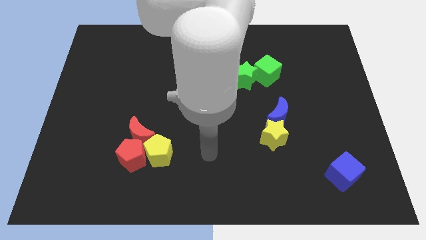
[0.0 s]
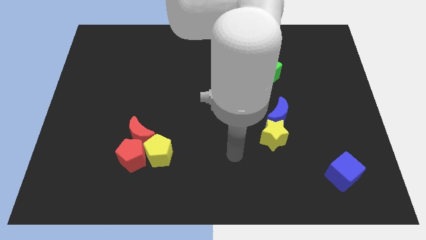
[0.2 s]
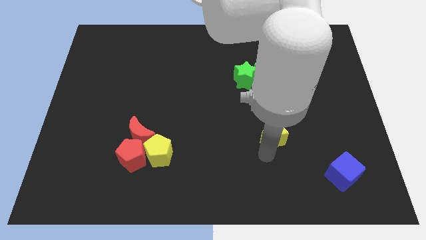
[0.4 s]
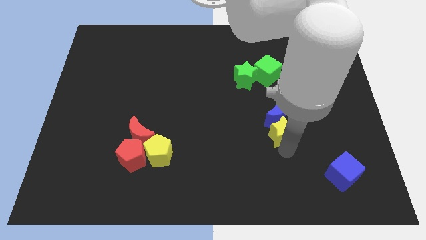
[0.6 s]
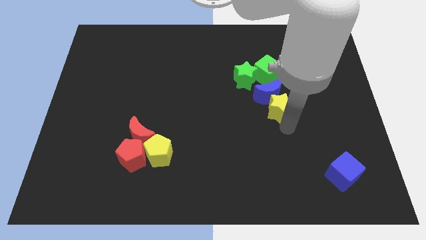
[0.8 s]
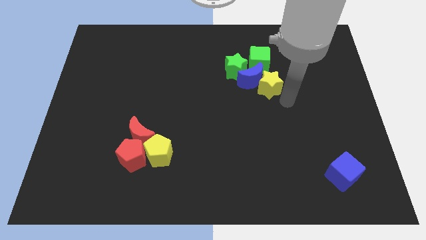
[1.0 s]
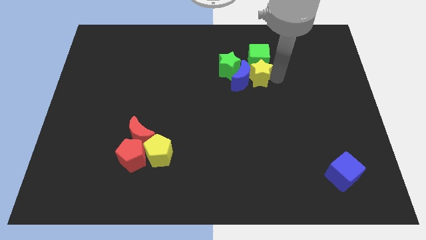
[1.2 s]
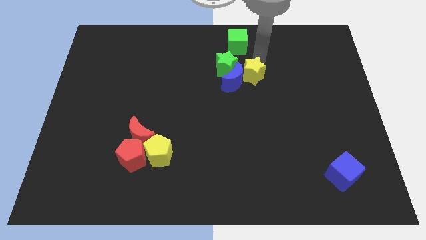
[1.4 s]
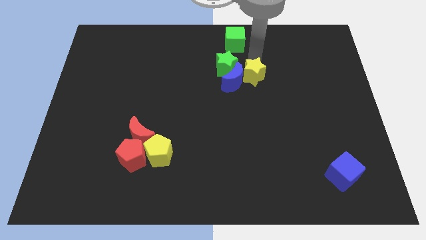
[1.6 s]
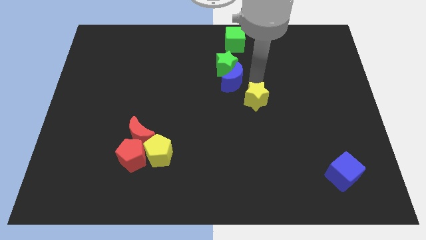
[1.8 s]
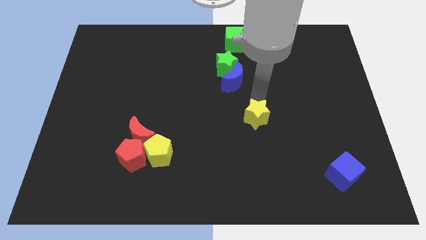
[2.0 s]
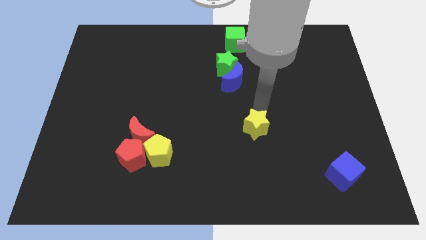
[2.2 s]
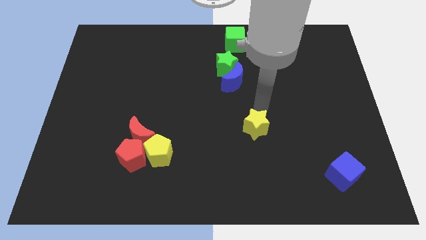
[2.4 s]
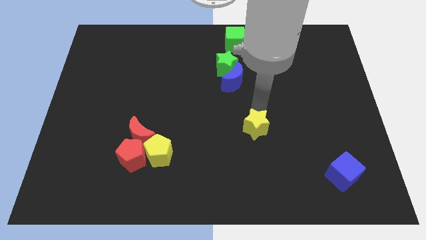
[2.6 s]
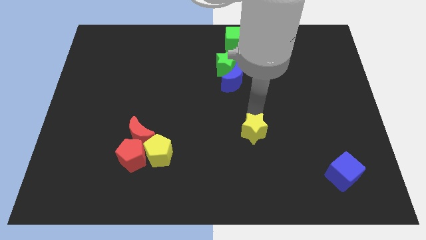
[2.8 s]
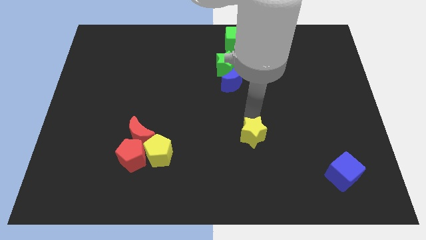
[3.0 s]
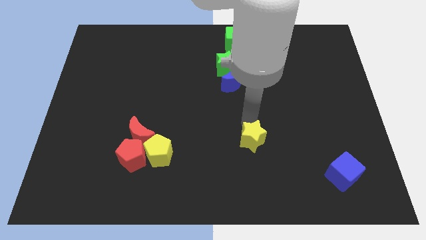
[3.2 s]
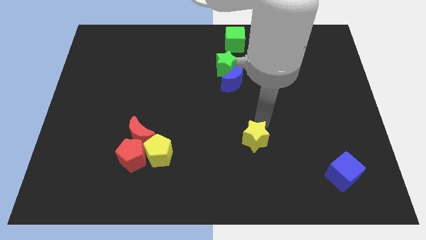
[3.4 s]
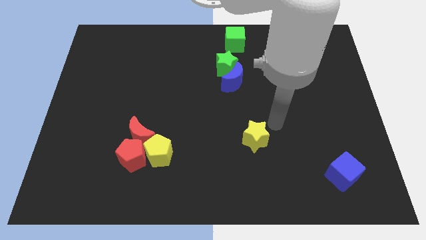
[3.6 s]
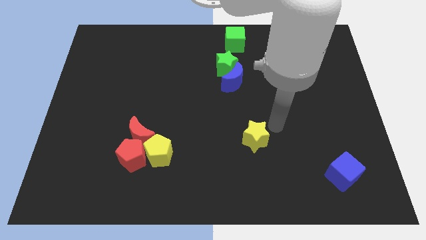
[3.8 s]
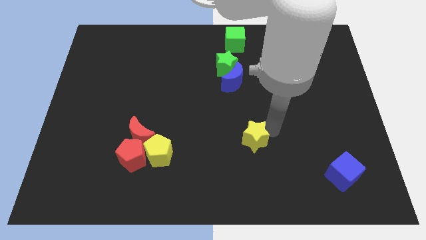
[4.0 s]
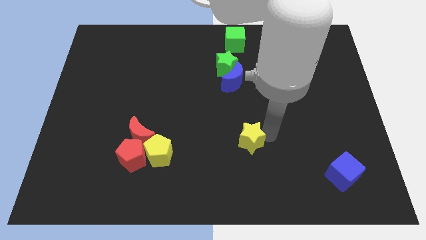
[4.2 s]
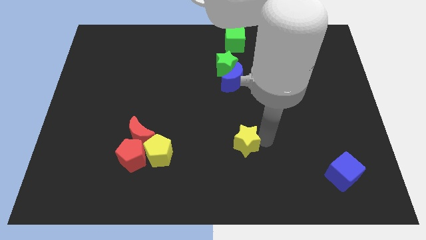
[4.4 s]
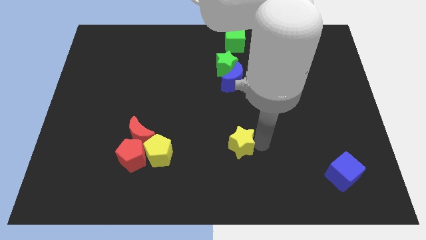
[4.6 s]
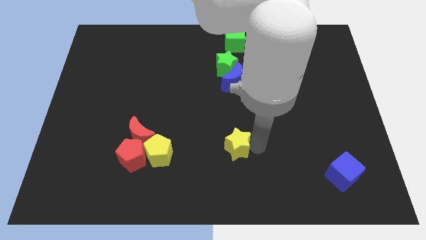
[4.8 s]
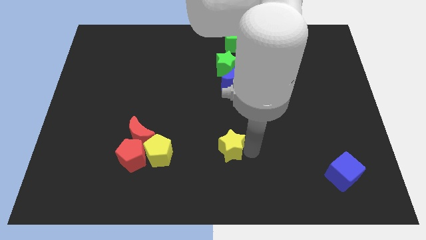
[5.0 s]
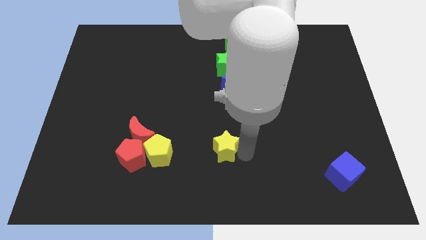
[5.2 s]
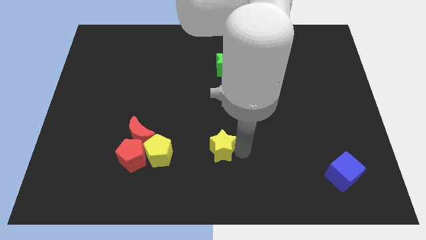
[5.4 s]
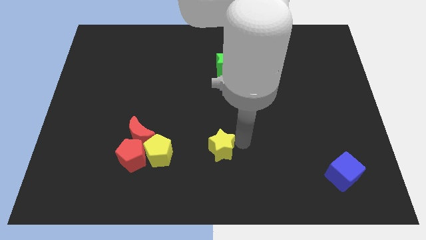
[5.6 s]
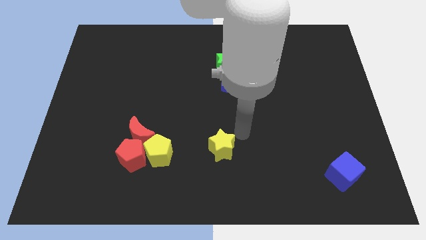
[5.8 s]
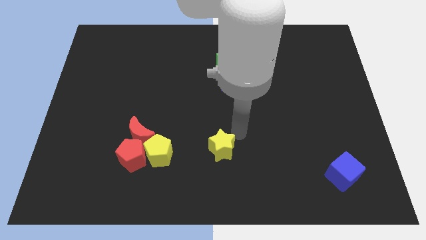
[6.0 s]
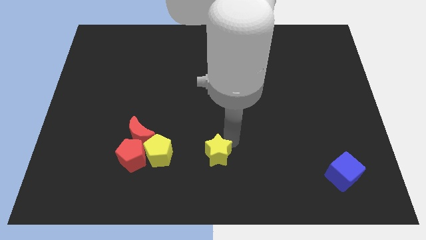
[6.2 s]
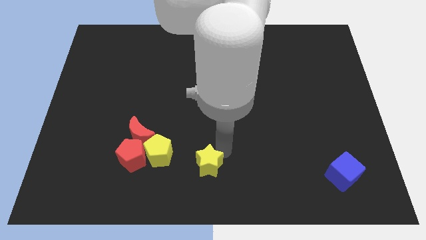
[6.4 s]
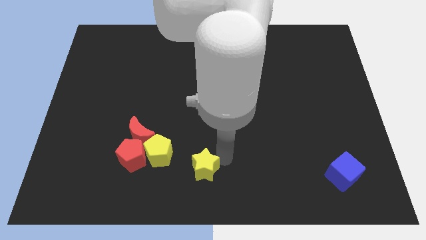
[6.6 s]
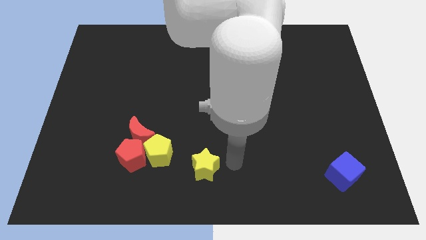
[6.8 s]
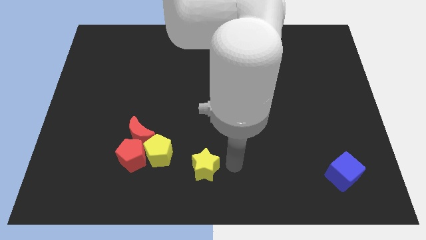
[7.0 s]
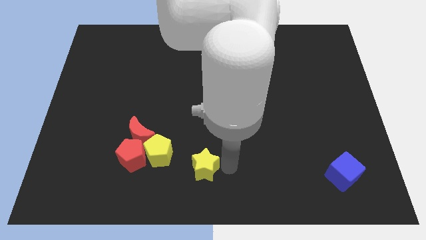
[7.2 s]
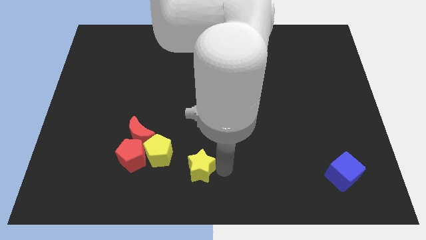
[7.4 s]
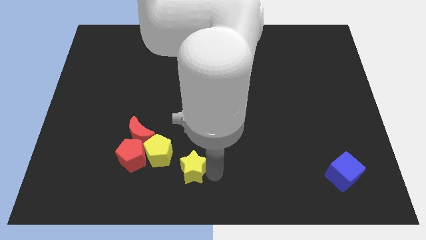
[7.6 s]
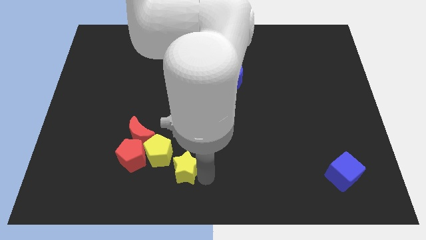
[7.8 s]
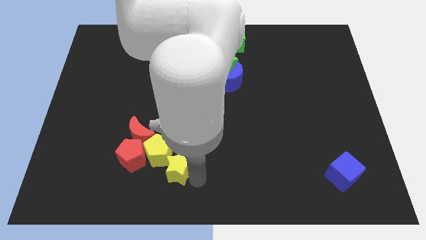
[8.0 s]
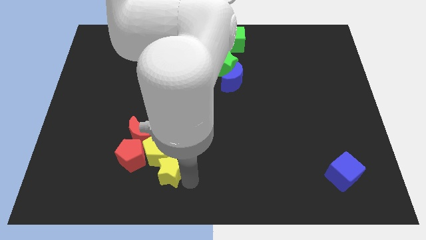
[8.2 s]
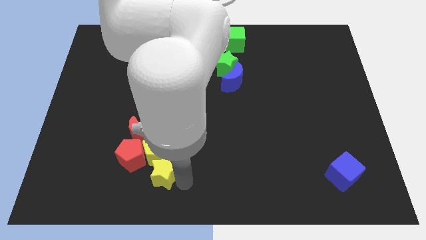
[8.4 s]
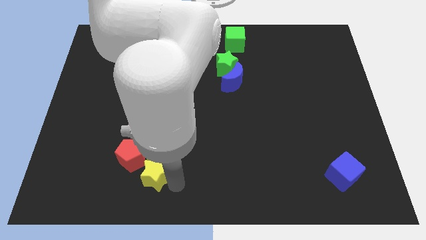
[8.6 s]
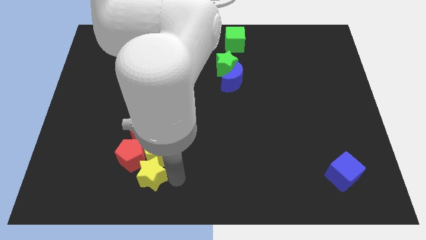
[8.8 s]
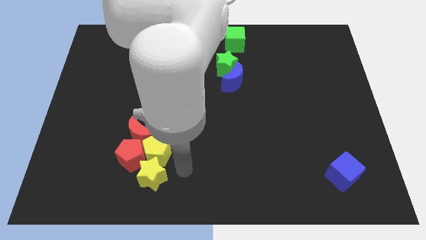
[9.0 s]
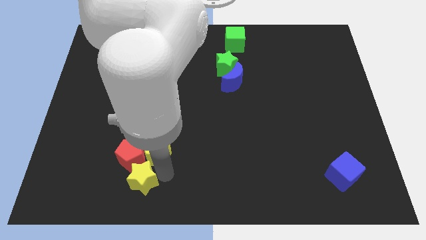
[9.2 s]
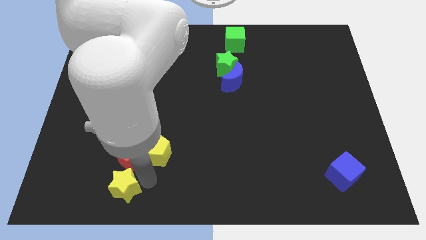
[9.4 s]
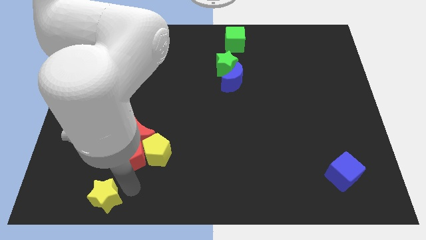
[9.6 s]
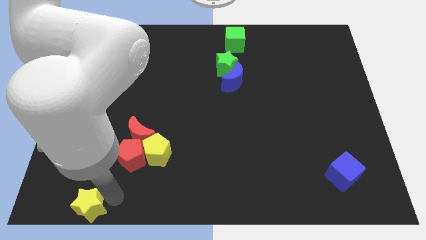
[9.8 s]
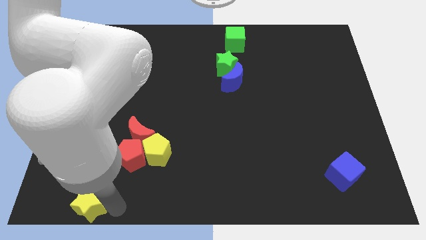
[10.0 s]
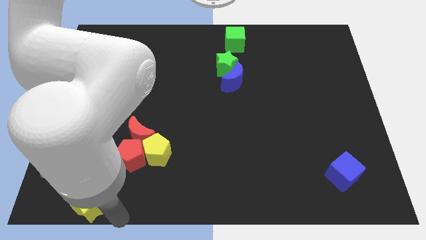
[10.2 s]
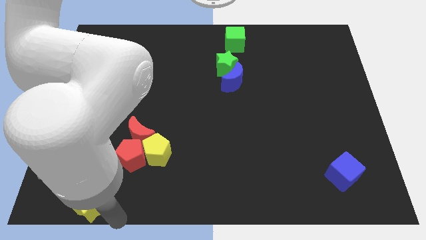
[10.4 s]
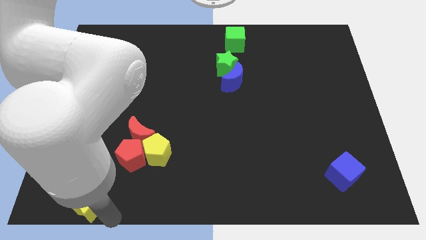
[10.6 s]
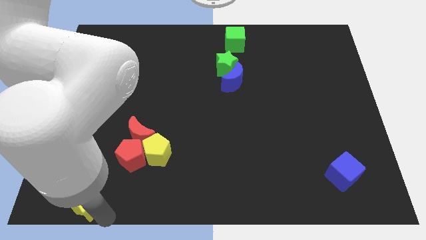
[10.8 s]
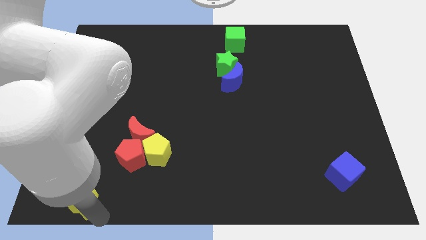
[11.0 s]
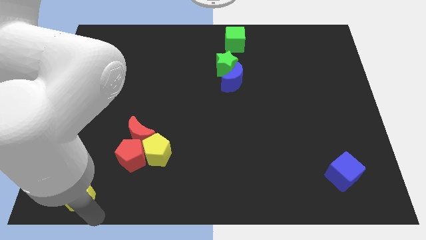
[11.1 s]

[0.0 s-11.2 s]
put the yellow star to the lower left corner
